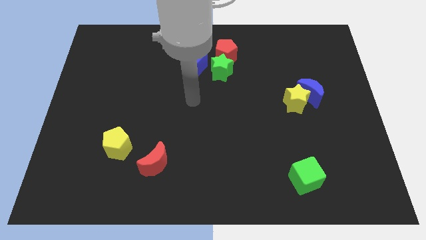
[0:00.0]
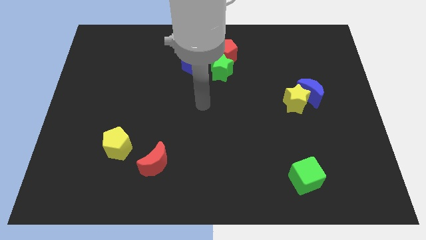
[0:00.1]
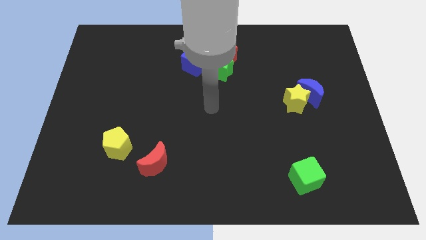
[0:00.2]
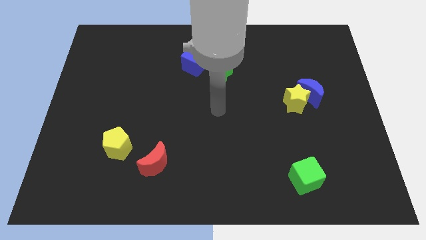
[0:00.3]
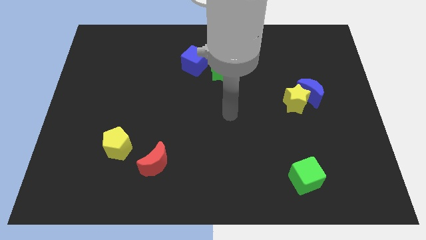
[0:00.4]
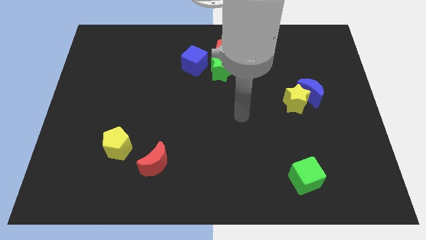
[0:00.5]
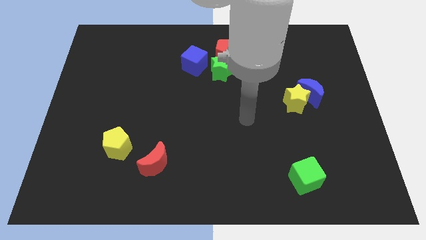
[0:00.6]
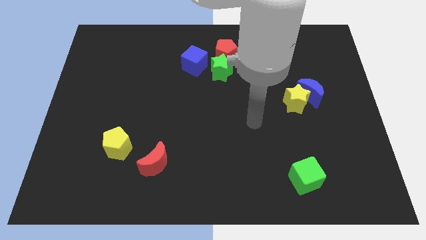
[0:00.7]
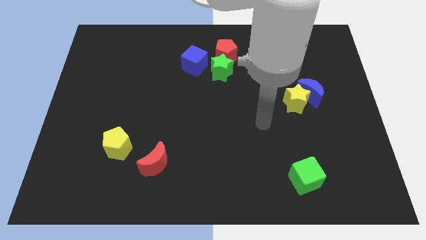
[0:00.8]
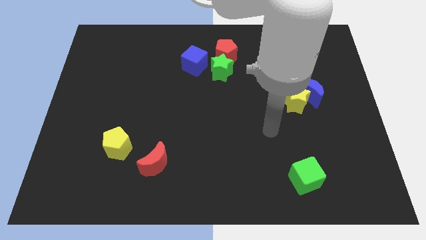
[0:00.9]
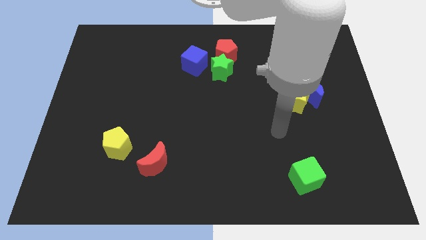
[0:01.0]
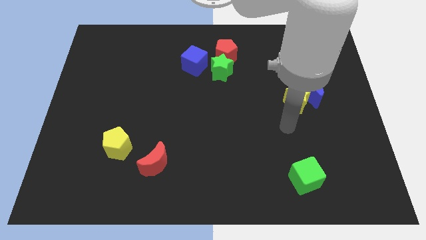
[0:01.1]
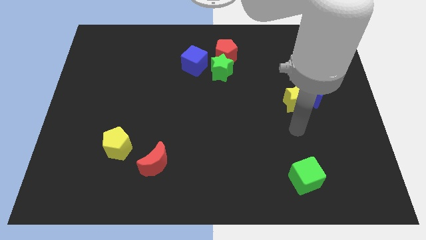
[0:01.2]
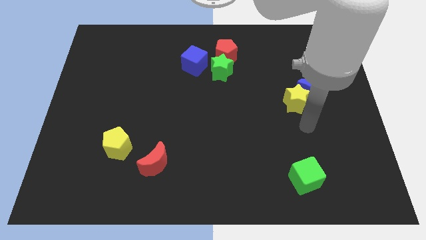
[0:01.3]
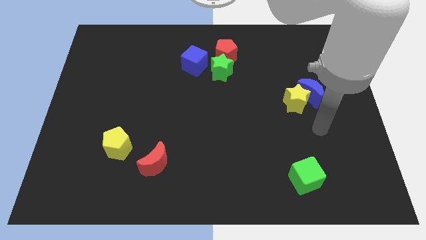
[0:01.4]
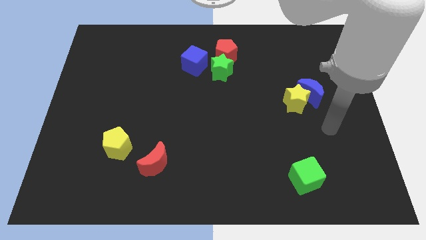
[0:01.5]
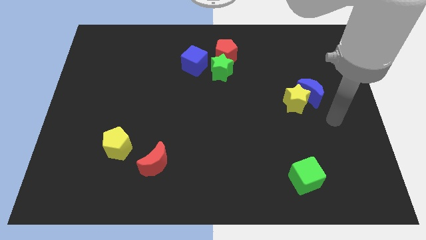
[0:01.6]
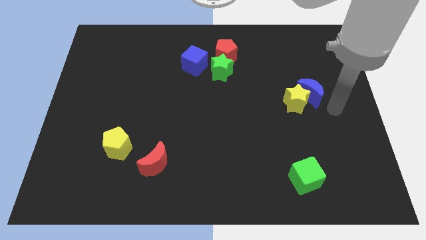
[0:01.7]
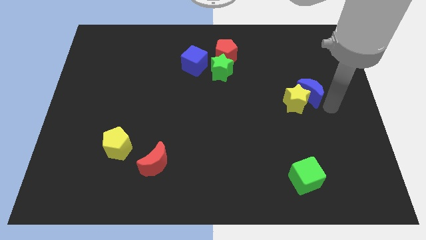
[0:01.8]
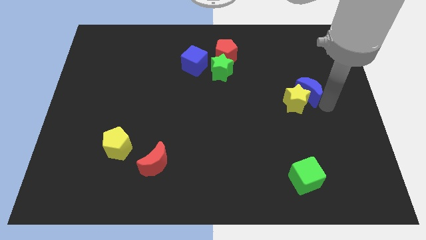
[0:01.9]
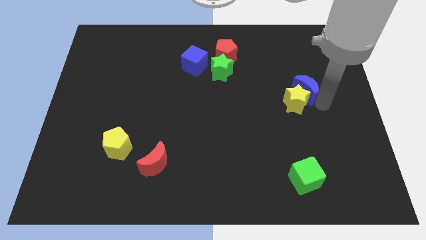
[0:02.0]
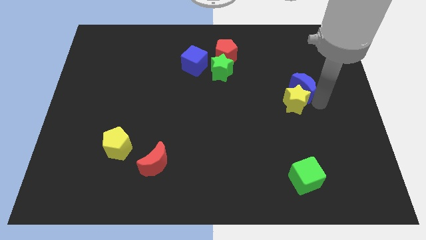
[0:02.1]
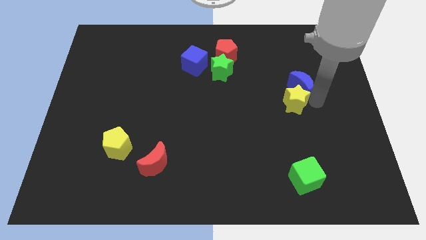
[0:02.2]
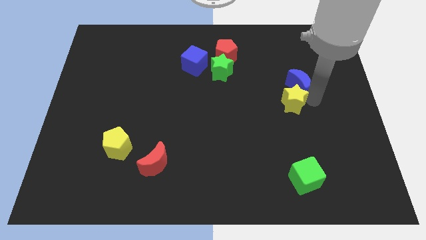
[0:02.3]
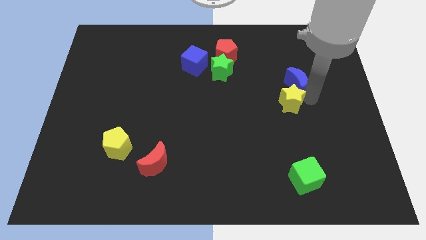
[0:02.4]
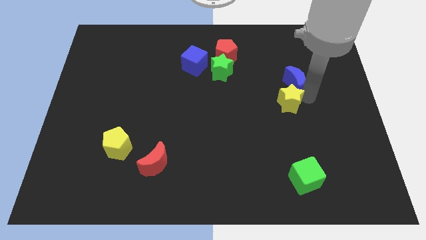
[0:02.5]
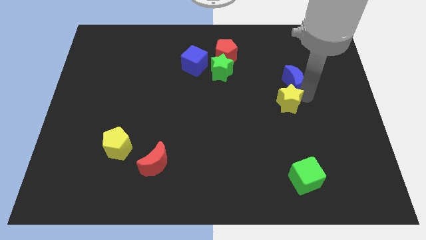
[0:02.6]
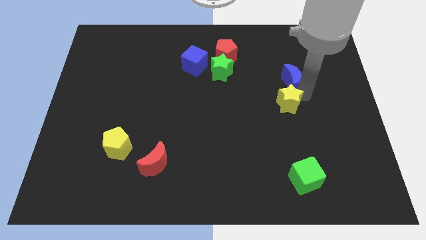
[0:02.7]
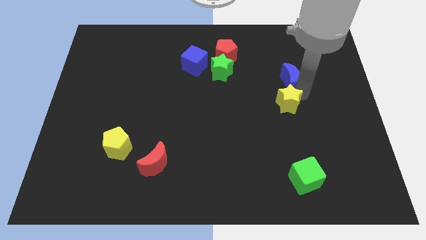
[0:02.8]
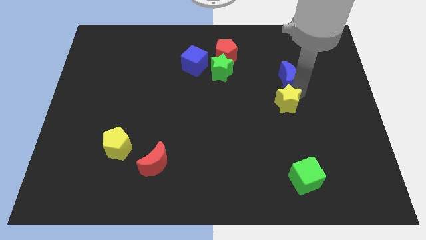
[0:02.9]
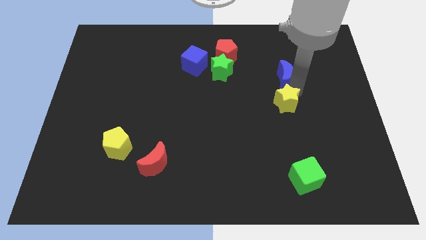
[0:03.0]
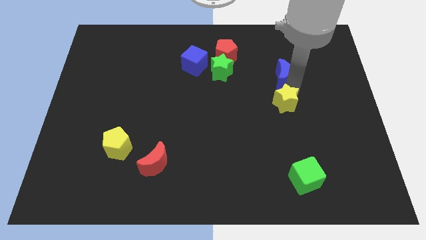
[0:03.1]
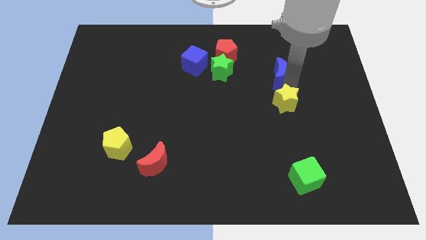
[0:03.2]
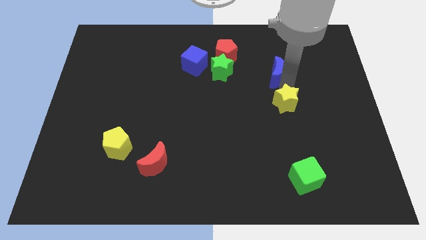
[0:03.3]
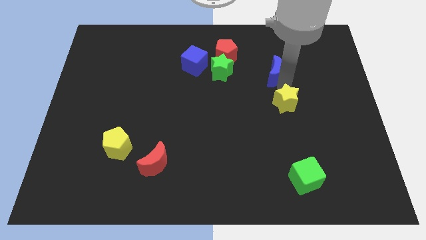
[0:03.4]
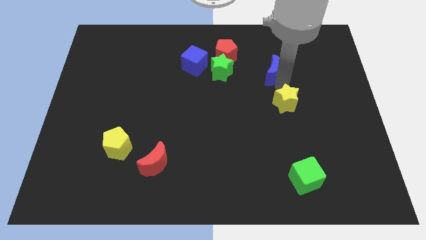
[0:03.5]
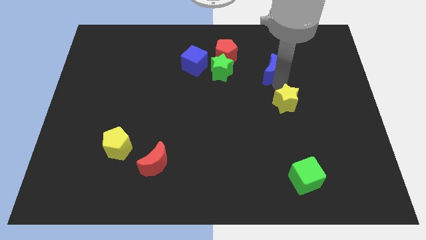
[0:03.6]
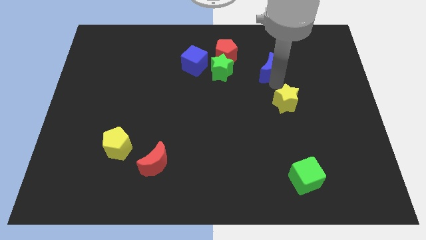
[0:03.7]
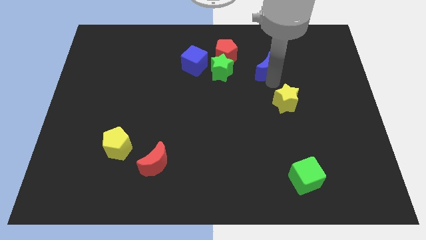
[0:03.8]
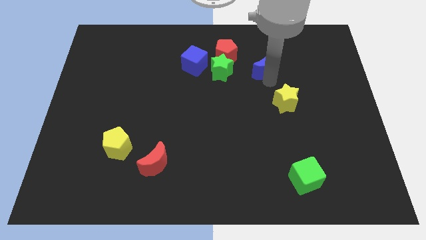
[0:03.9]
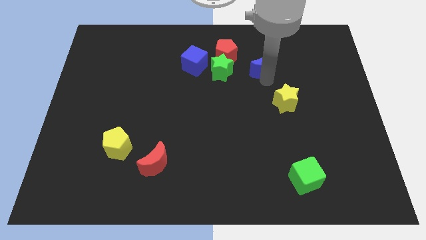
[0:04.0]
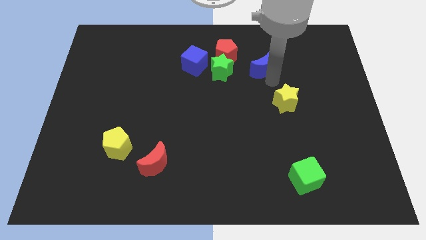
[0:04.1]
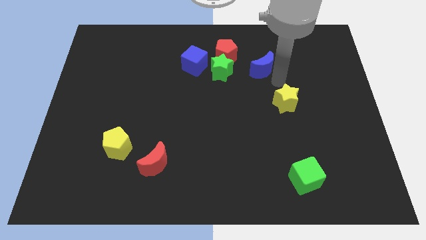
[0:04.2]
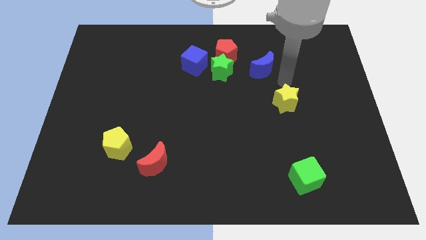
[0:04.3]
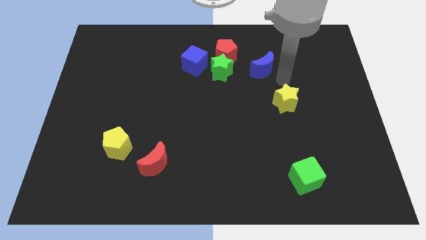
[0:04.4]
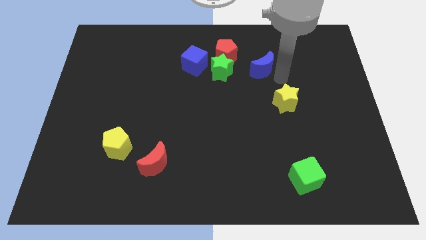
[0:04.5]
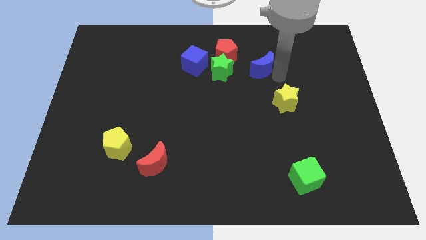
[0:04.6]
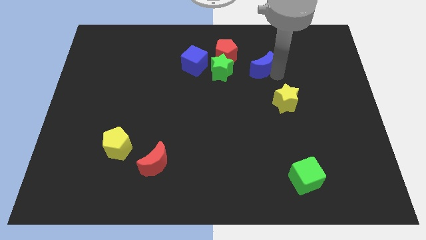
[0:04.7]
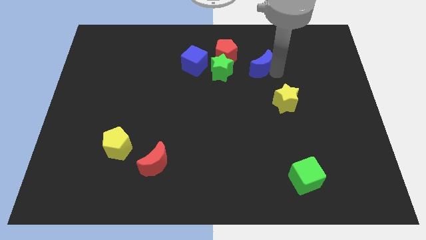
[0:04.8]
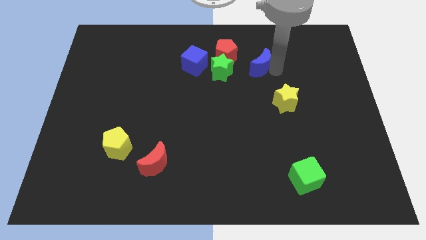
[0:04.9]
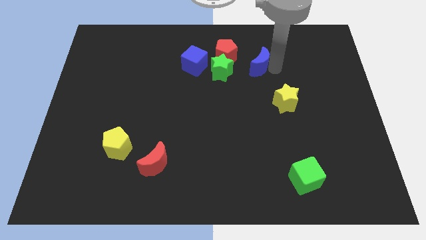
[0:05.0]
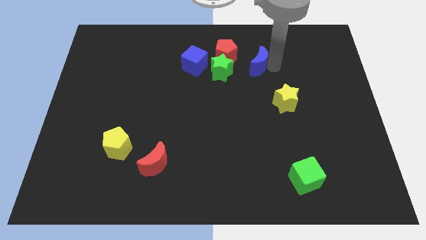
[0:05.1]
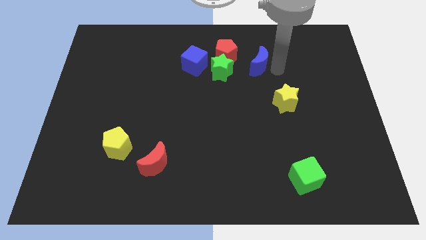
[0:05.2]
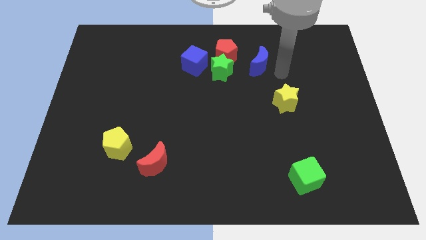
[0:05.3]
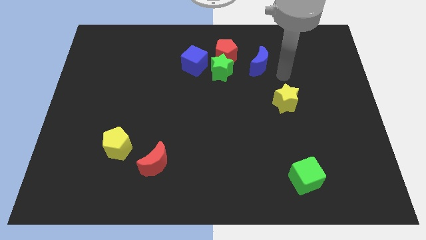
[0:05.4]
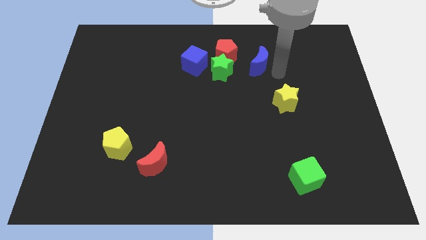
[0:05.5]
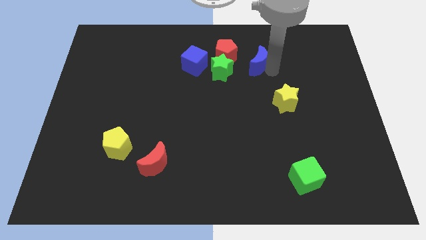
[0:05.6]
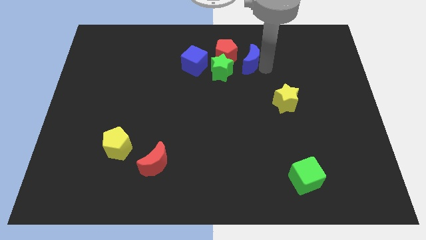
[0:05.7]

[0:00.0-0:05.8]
move the blue moon to the top right side of the green star

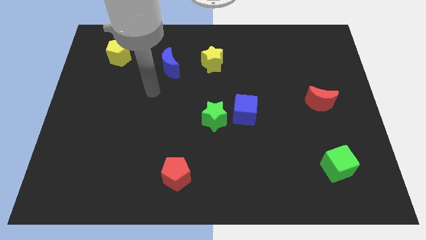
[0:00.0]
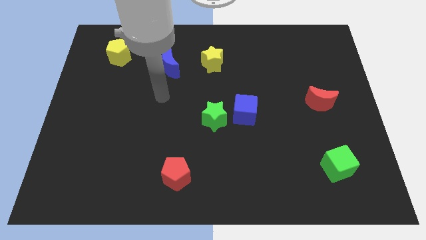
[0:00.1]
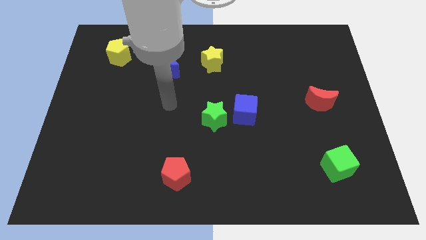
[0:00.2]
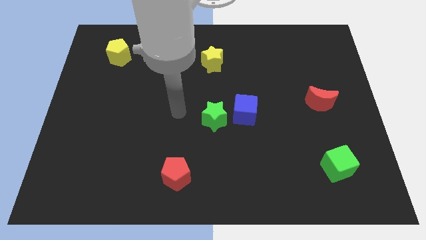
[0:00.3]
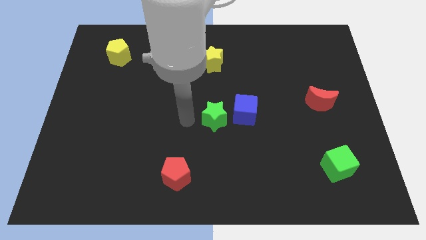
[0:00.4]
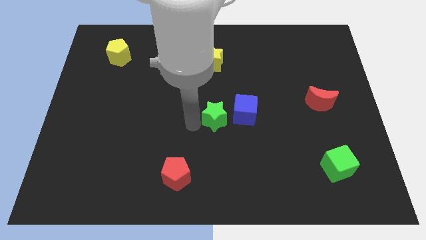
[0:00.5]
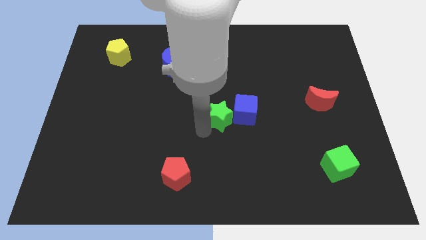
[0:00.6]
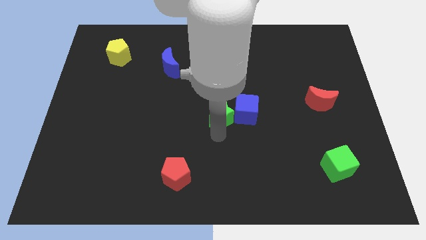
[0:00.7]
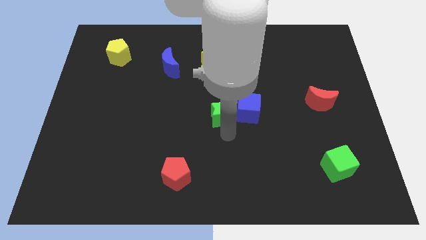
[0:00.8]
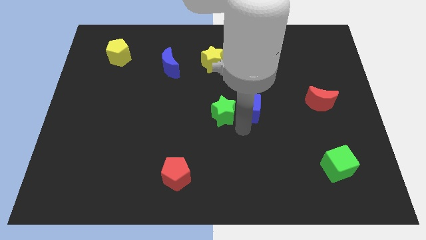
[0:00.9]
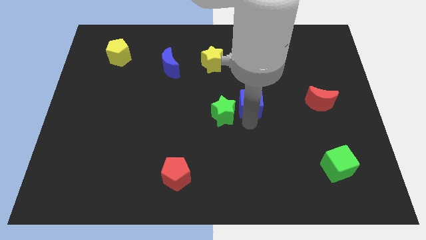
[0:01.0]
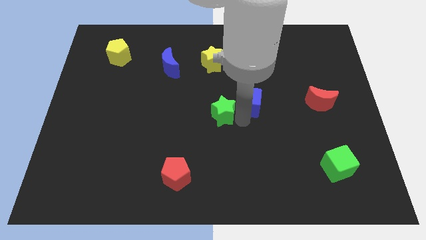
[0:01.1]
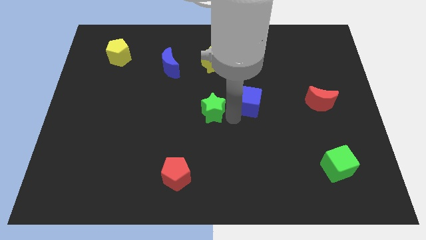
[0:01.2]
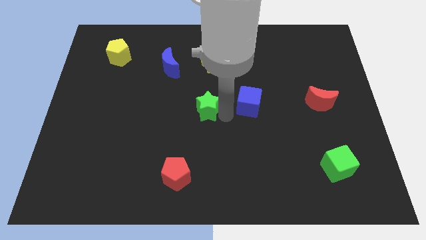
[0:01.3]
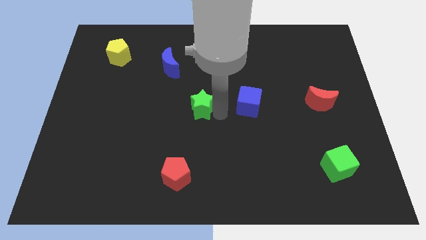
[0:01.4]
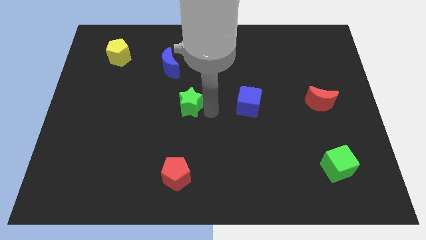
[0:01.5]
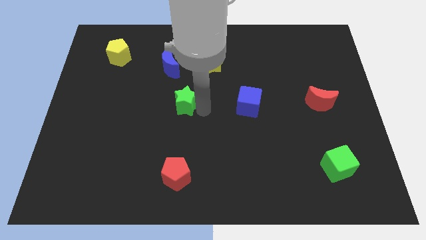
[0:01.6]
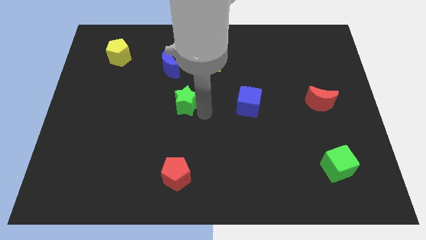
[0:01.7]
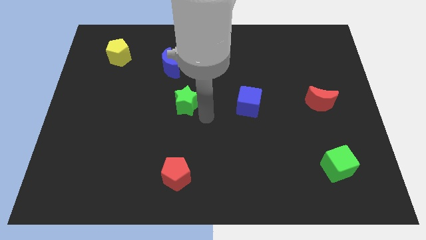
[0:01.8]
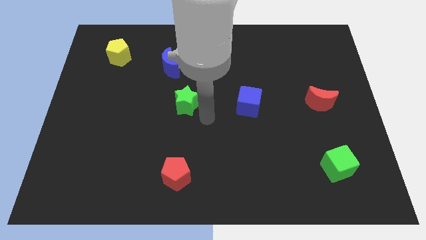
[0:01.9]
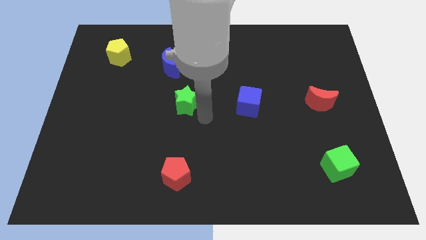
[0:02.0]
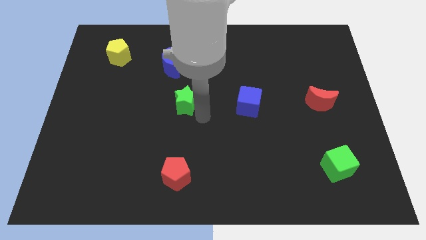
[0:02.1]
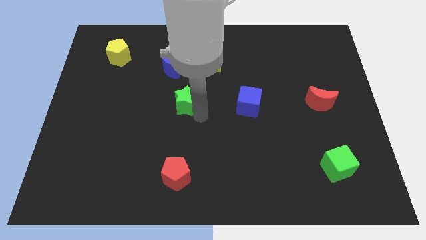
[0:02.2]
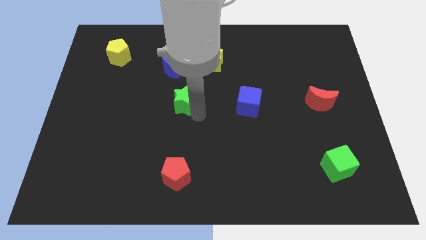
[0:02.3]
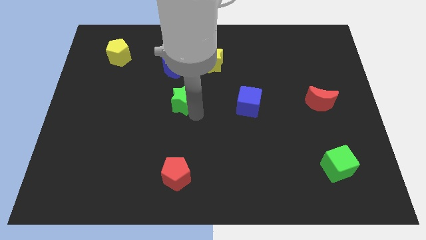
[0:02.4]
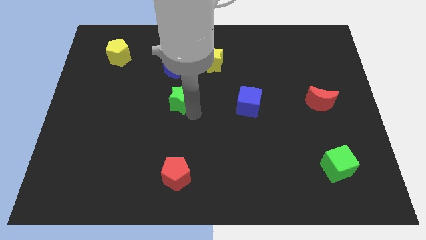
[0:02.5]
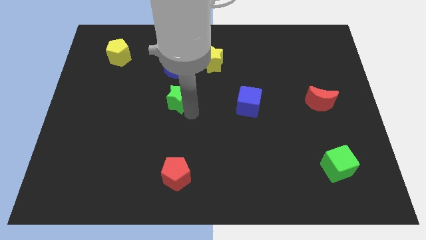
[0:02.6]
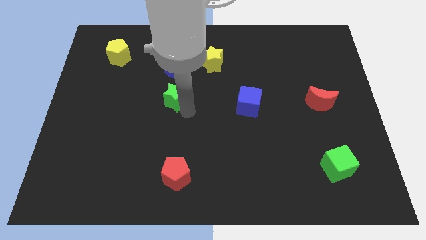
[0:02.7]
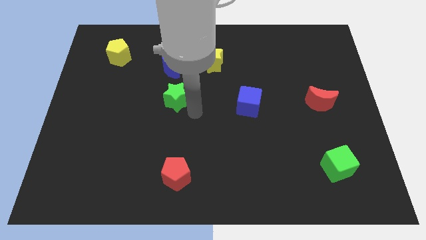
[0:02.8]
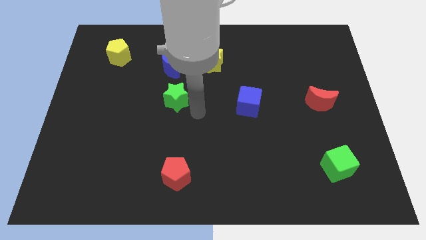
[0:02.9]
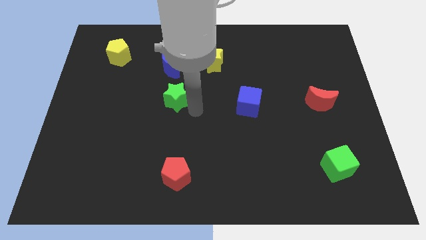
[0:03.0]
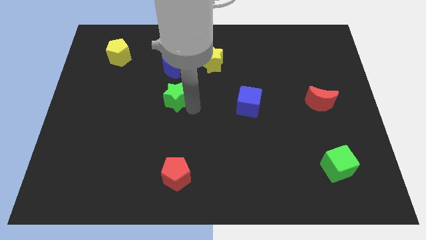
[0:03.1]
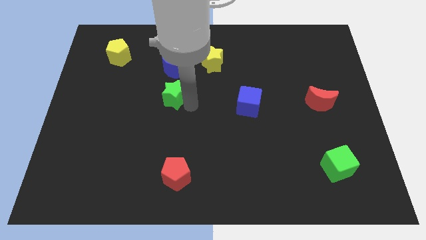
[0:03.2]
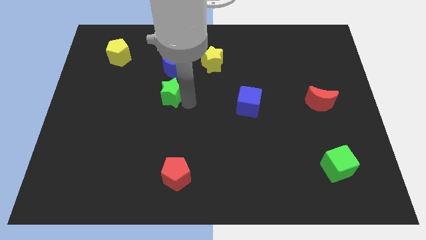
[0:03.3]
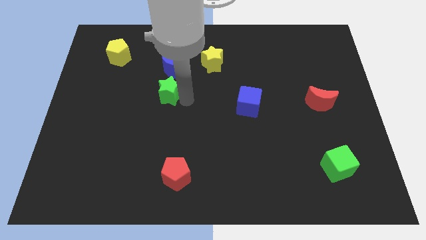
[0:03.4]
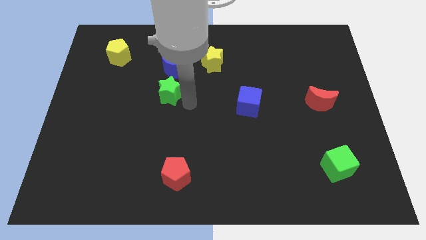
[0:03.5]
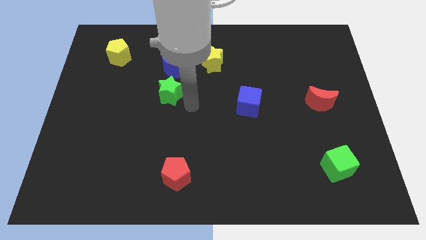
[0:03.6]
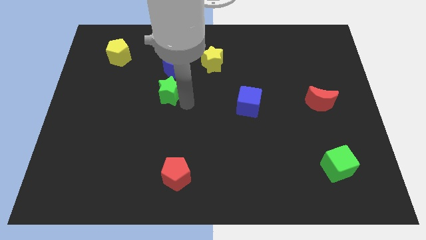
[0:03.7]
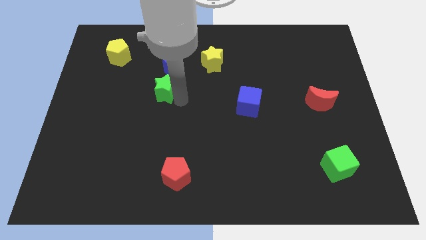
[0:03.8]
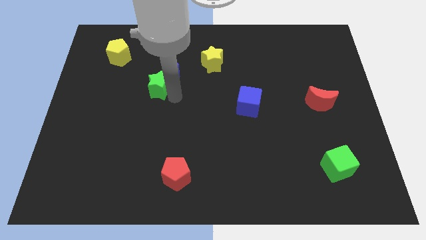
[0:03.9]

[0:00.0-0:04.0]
put the green star to the bottom left of the blue moon
